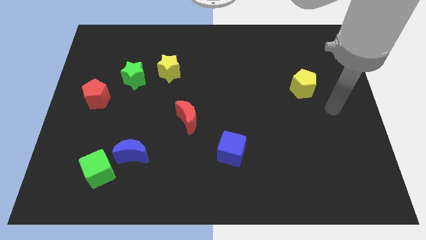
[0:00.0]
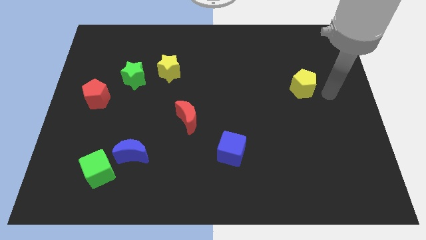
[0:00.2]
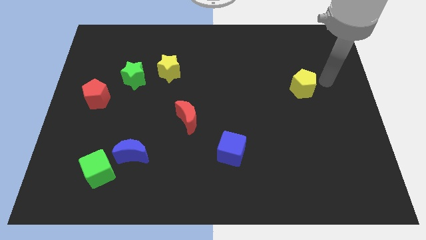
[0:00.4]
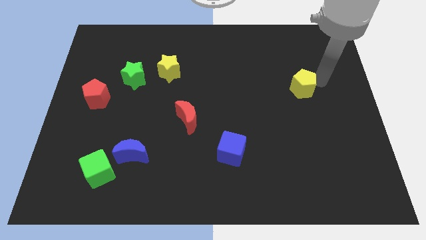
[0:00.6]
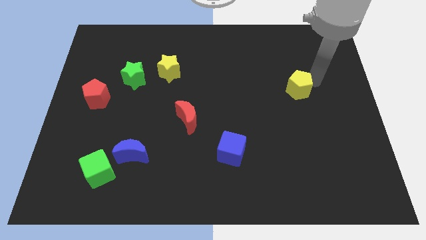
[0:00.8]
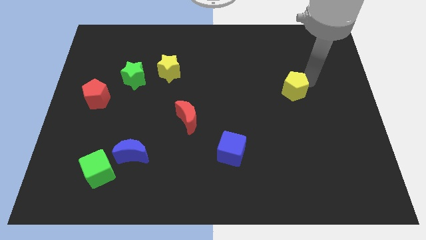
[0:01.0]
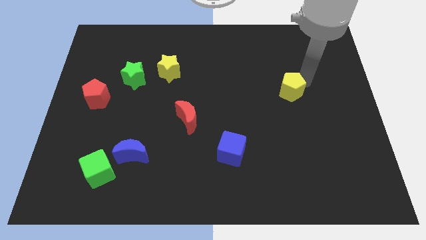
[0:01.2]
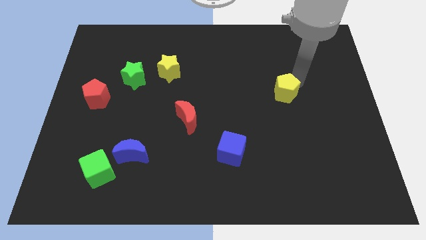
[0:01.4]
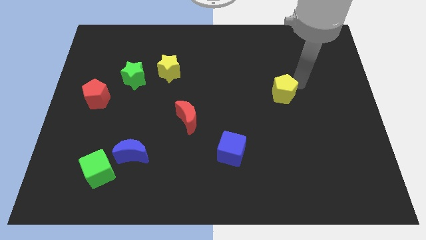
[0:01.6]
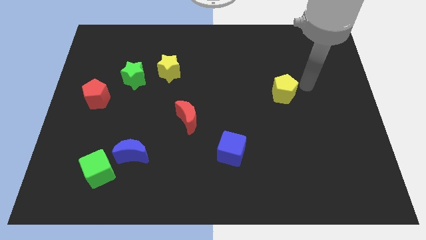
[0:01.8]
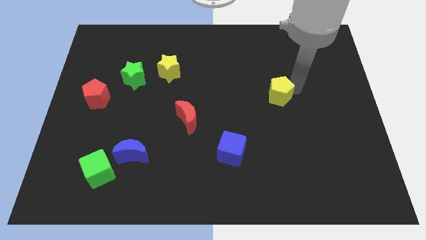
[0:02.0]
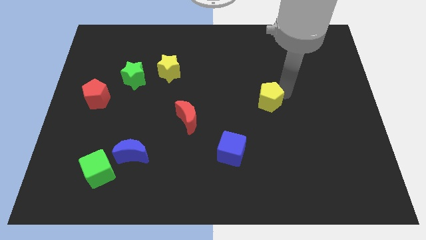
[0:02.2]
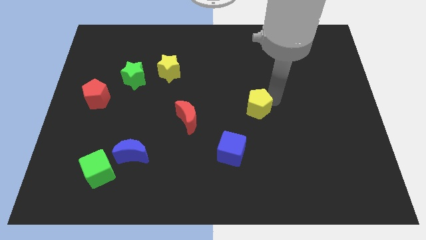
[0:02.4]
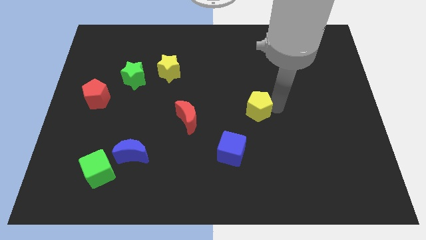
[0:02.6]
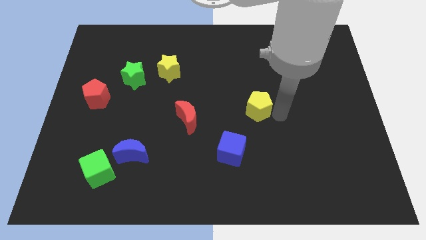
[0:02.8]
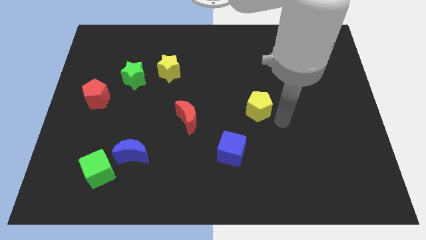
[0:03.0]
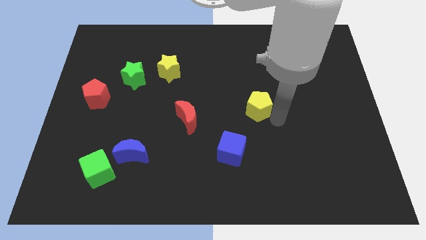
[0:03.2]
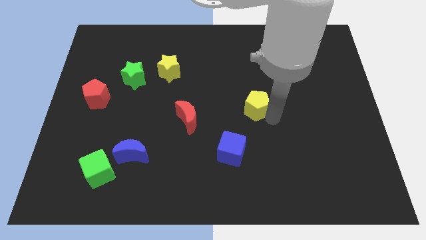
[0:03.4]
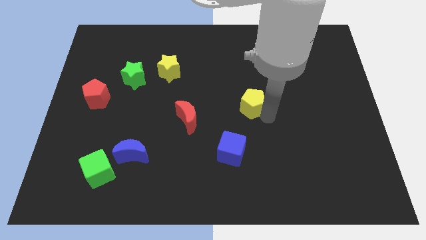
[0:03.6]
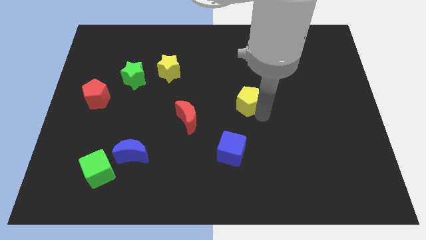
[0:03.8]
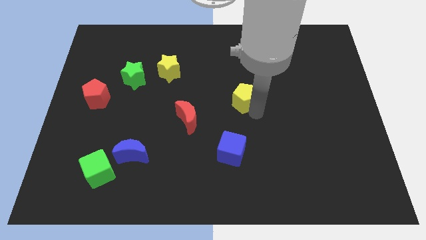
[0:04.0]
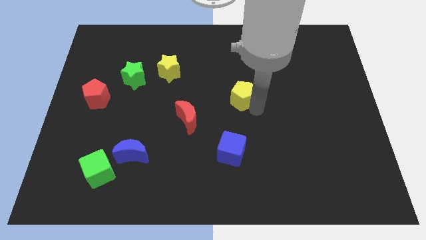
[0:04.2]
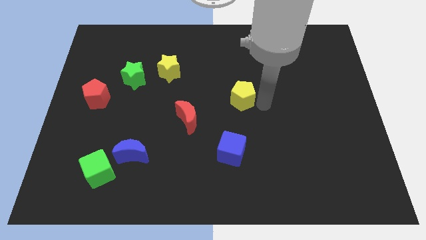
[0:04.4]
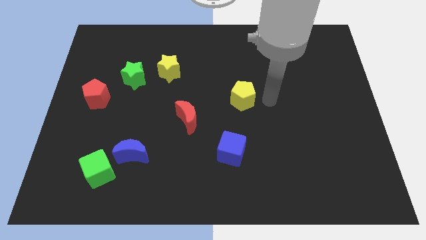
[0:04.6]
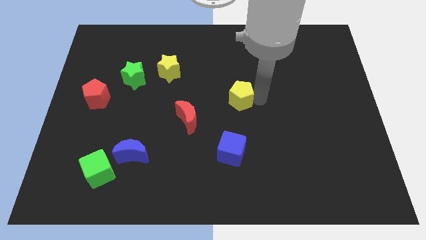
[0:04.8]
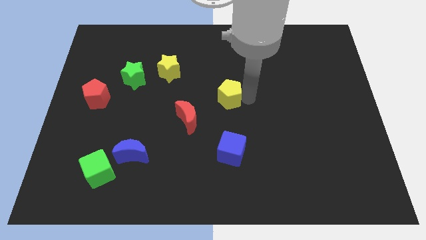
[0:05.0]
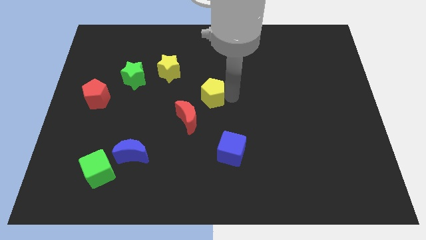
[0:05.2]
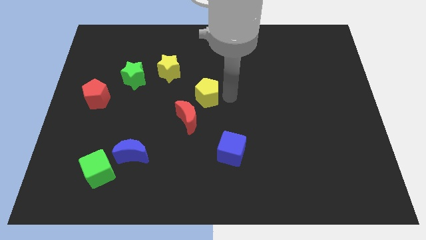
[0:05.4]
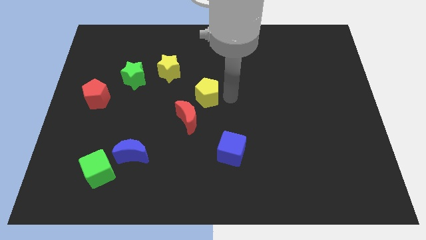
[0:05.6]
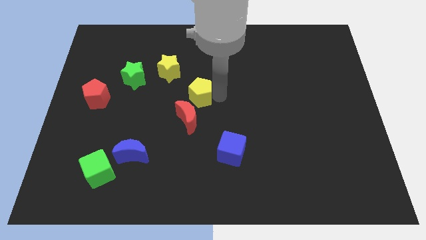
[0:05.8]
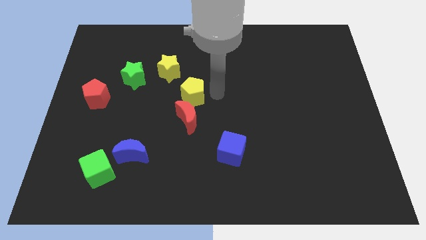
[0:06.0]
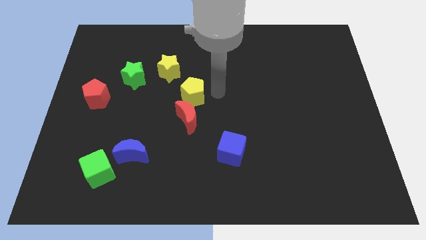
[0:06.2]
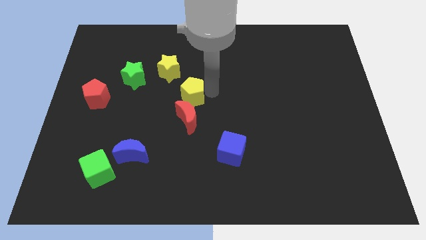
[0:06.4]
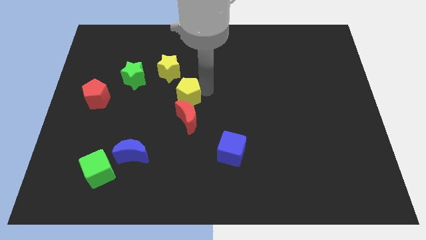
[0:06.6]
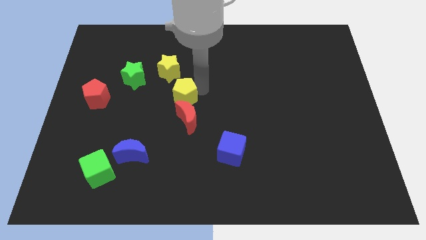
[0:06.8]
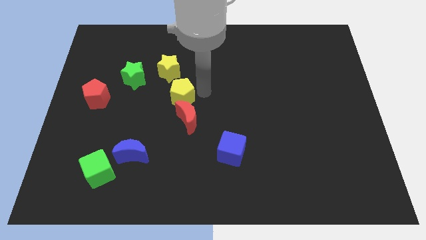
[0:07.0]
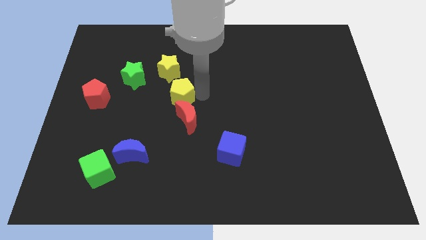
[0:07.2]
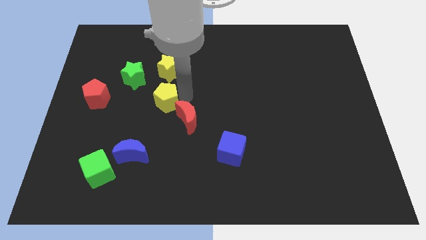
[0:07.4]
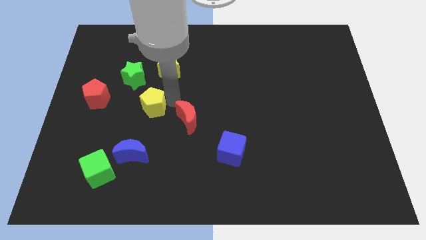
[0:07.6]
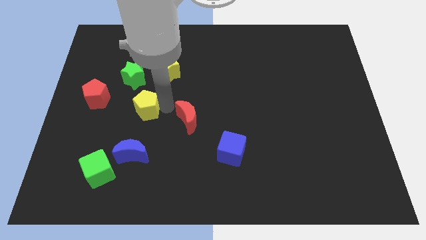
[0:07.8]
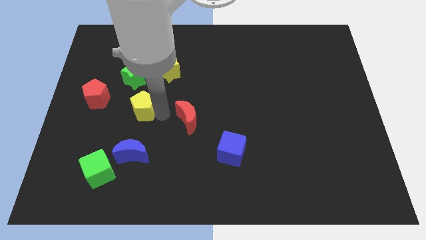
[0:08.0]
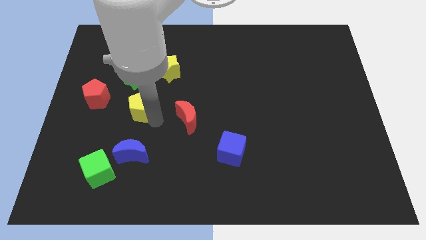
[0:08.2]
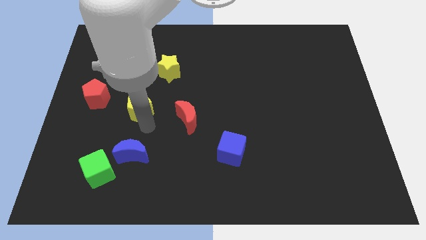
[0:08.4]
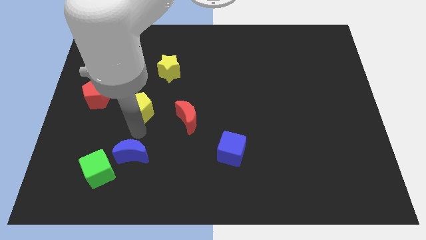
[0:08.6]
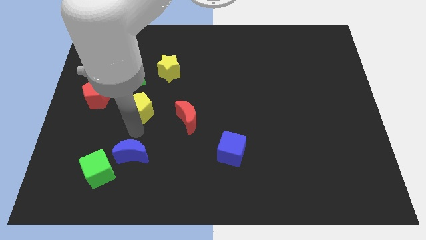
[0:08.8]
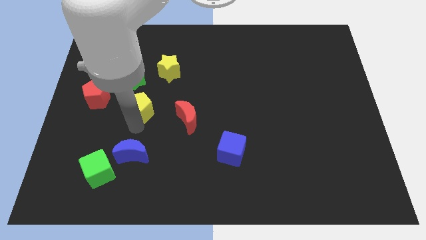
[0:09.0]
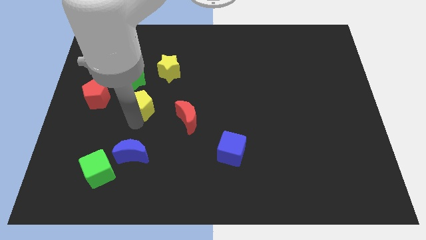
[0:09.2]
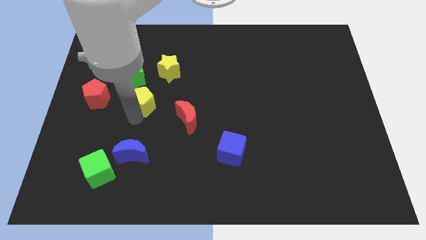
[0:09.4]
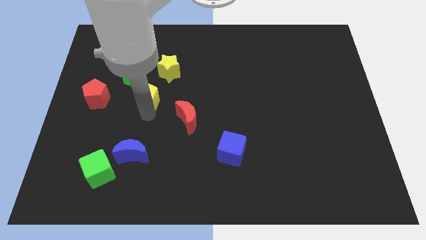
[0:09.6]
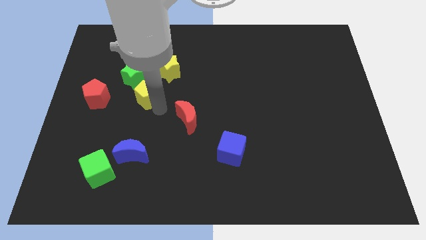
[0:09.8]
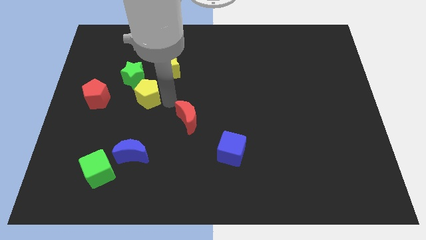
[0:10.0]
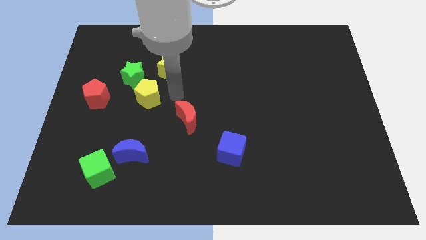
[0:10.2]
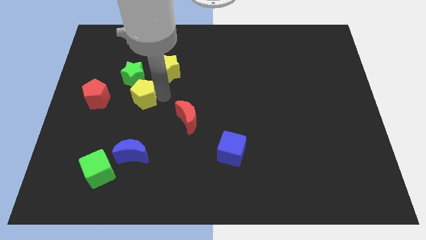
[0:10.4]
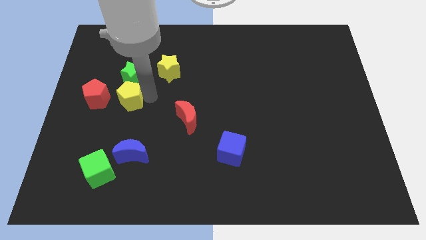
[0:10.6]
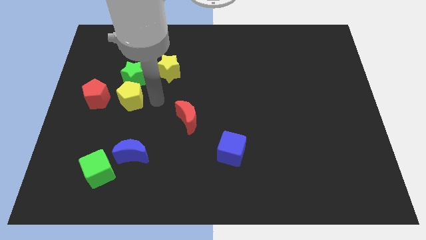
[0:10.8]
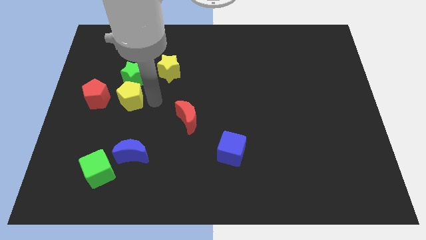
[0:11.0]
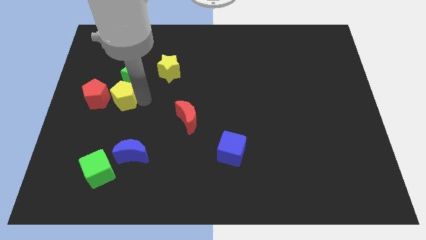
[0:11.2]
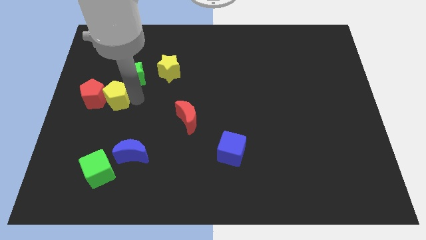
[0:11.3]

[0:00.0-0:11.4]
put the yellow pentagon to the red pentagon

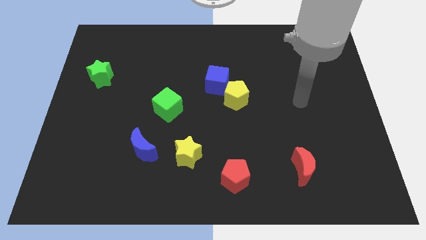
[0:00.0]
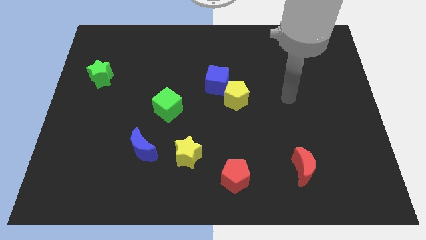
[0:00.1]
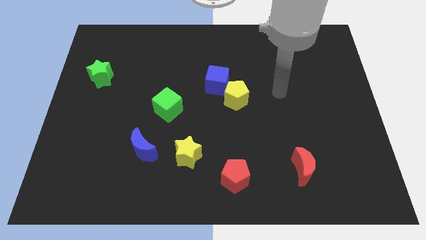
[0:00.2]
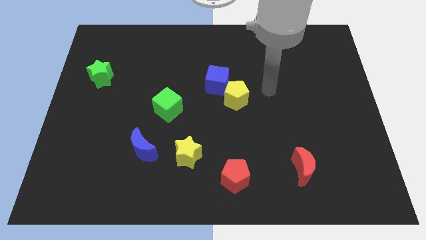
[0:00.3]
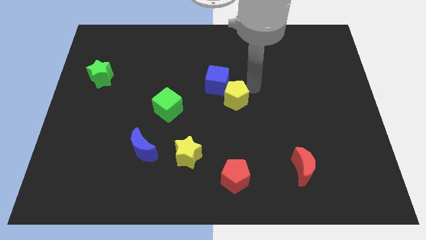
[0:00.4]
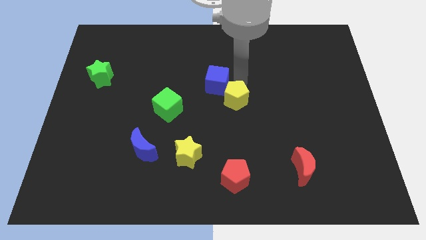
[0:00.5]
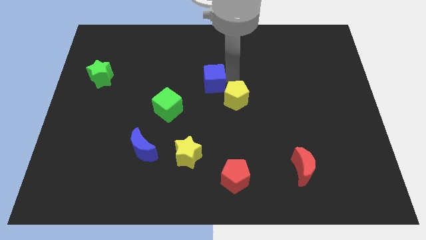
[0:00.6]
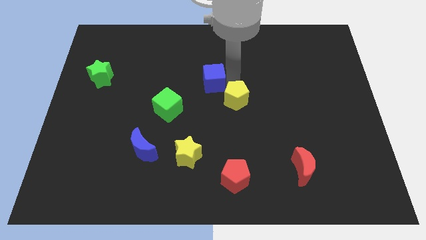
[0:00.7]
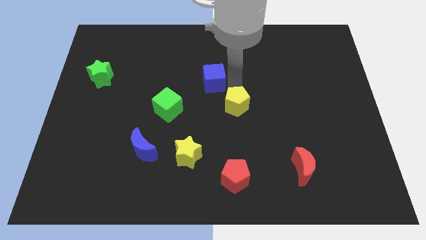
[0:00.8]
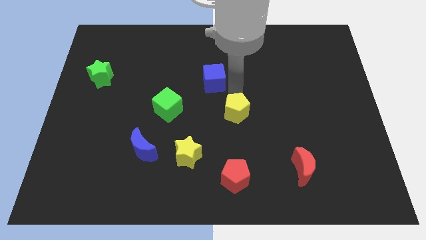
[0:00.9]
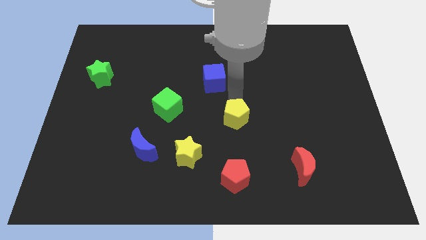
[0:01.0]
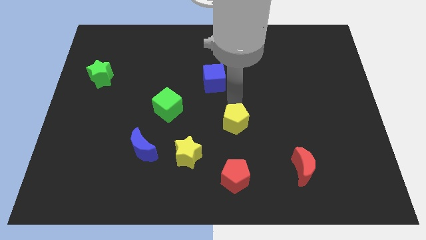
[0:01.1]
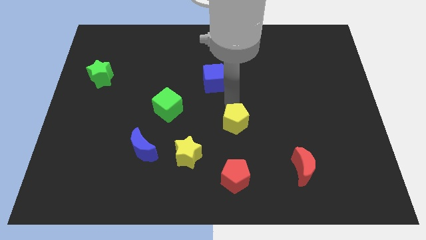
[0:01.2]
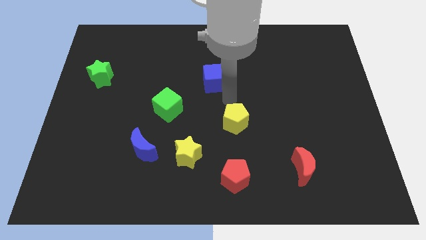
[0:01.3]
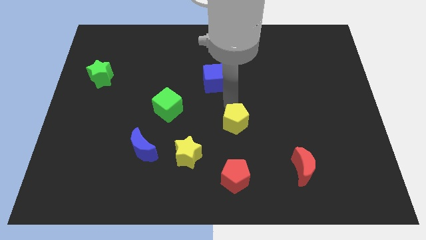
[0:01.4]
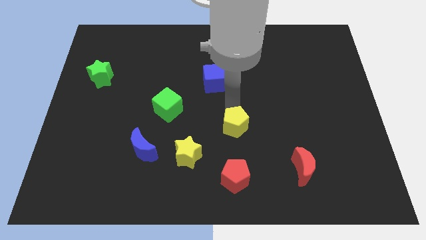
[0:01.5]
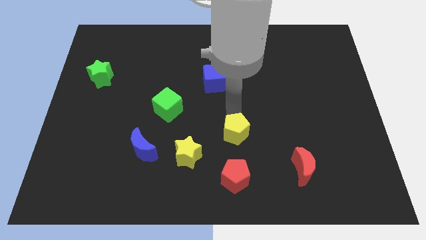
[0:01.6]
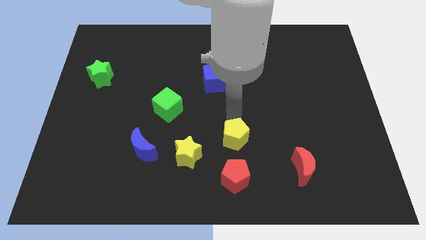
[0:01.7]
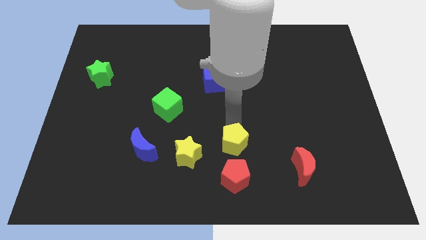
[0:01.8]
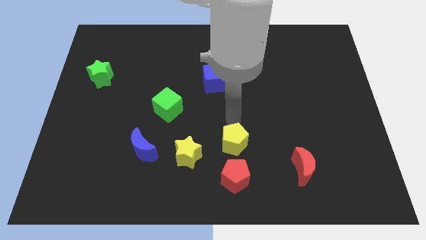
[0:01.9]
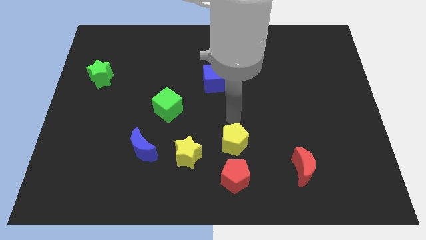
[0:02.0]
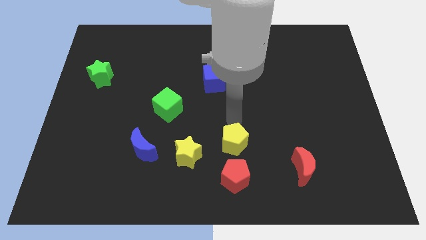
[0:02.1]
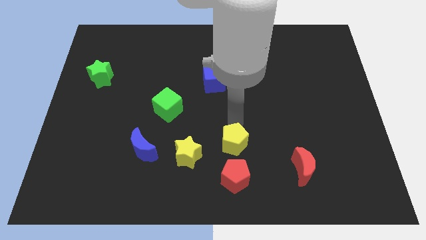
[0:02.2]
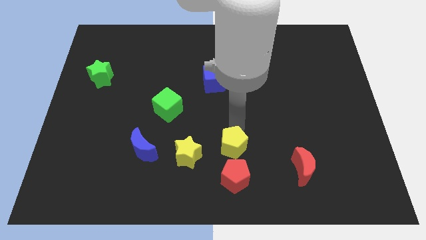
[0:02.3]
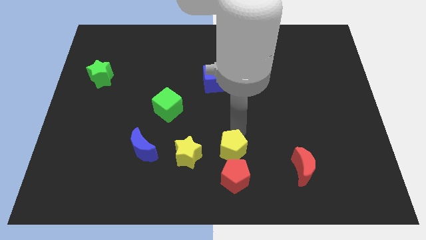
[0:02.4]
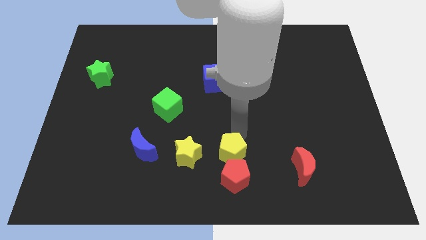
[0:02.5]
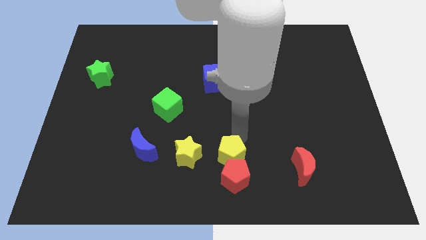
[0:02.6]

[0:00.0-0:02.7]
push the yellow pentagon towards the red pentagon
